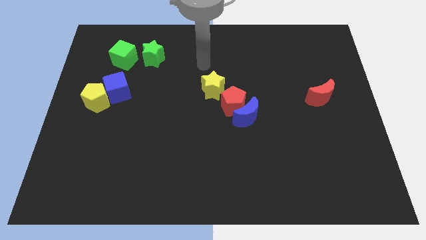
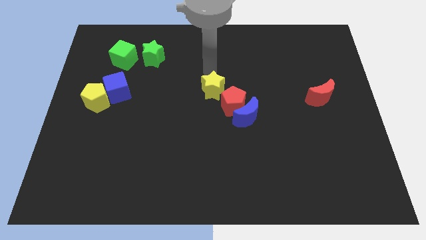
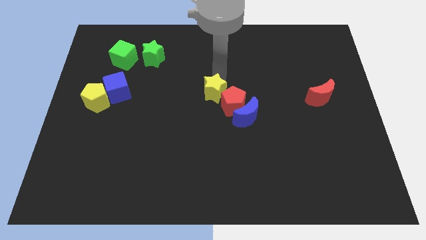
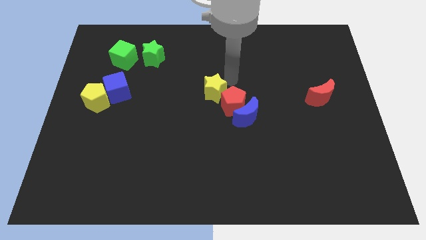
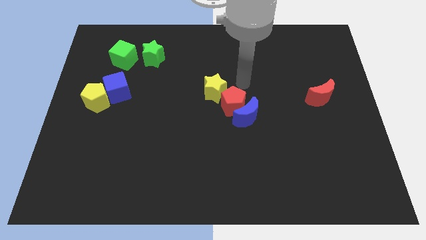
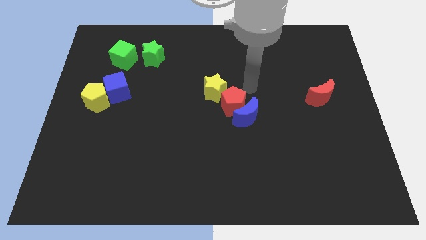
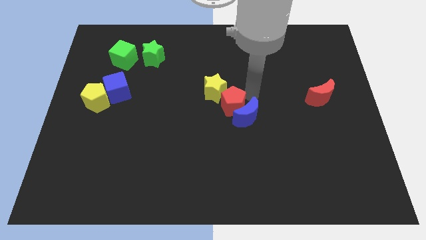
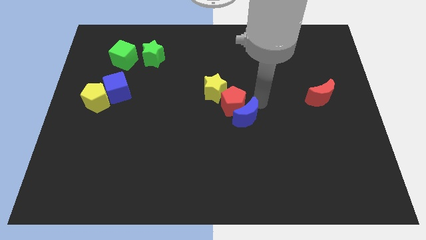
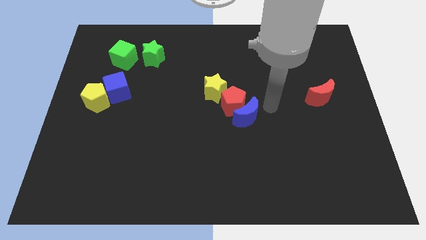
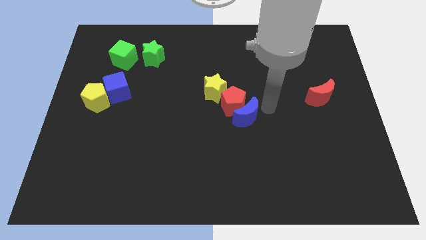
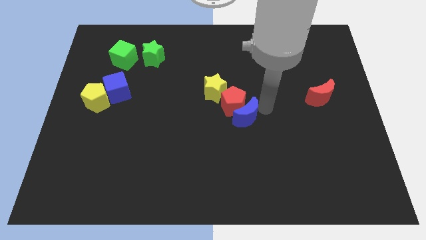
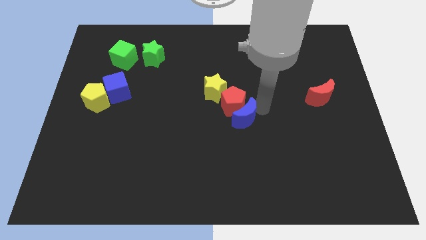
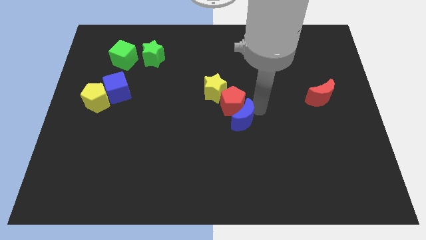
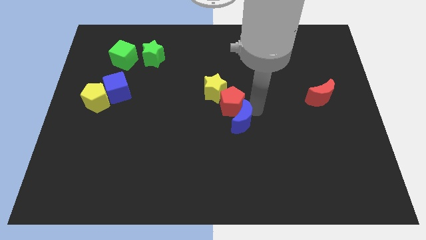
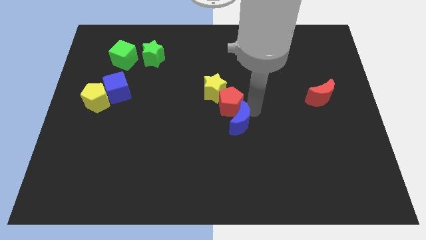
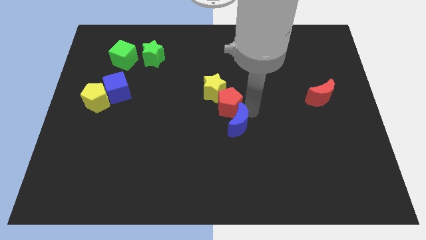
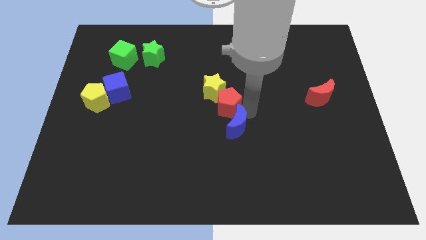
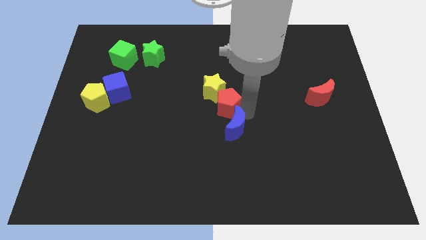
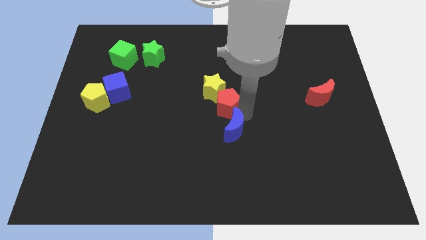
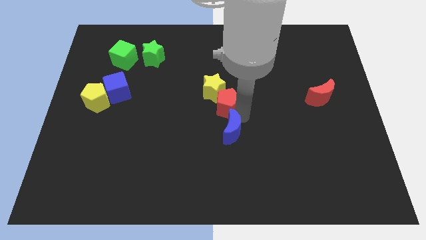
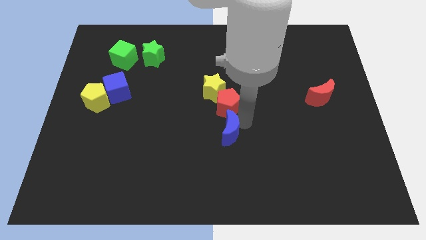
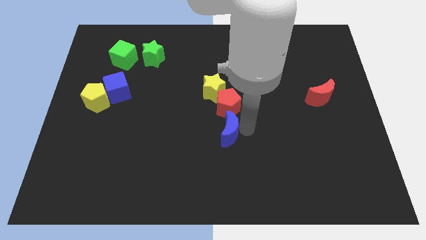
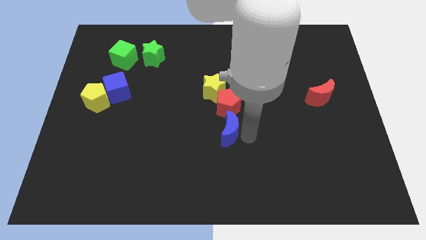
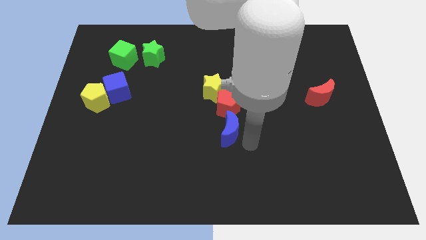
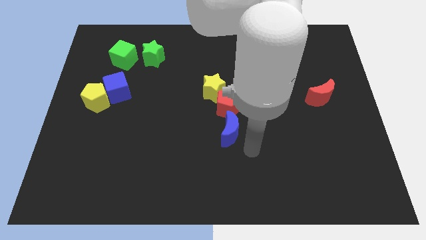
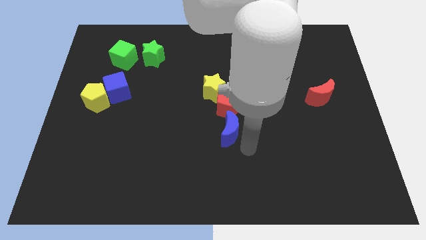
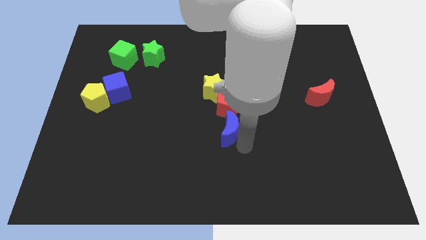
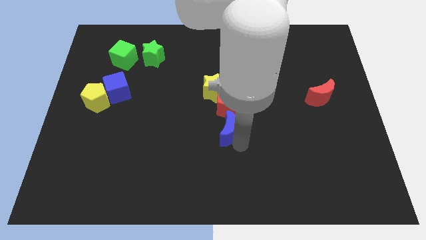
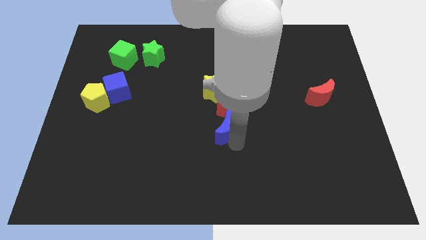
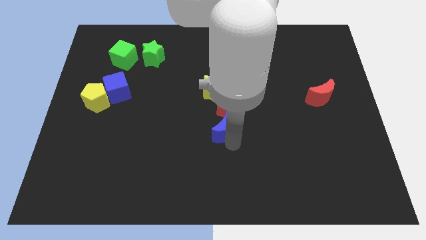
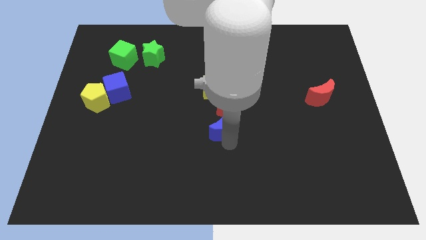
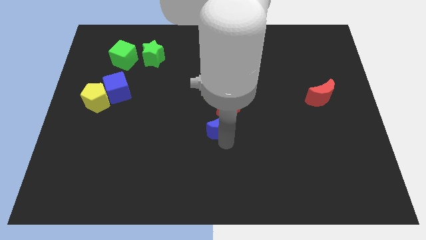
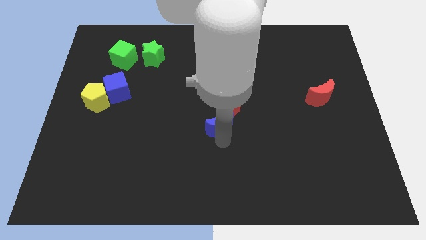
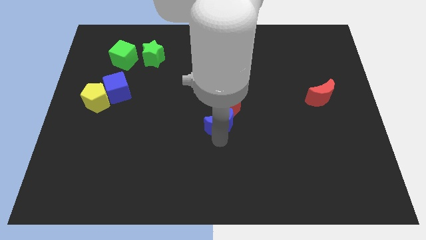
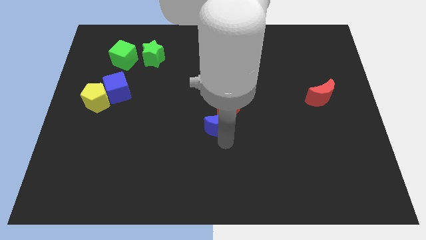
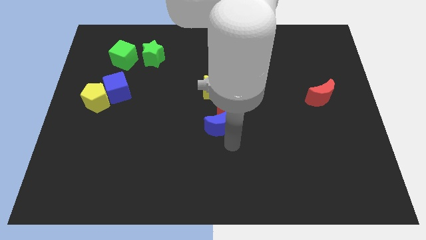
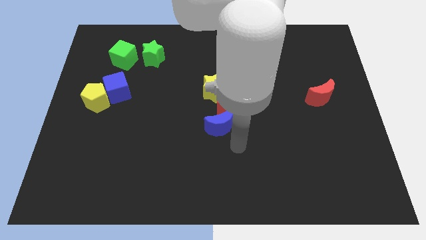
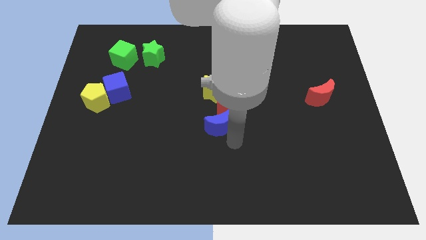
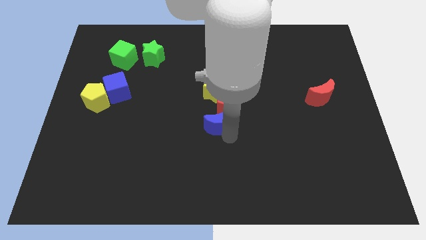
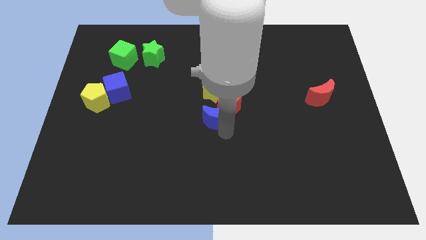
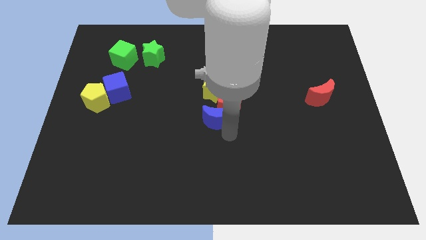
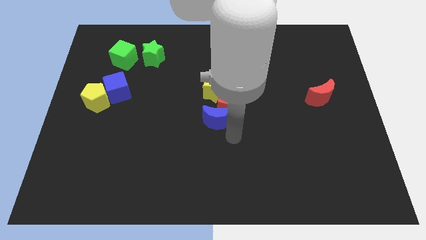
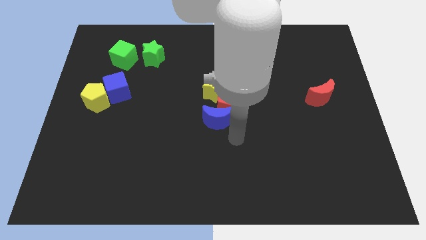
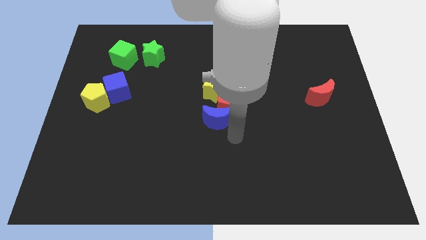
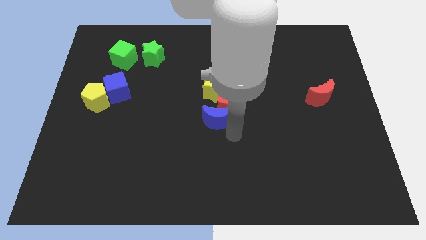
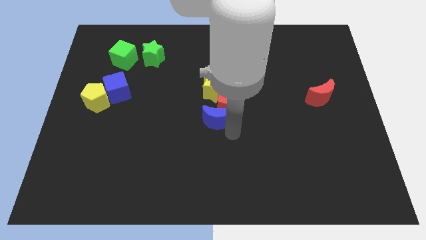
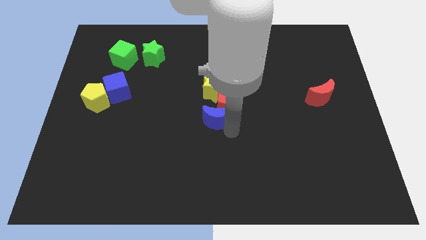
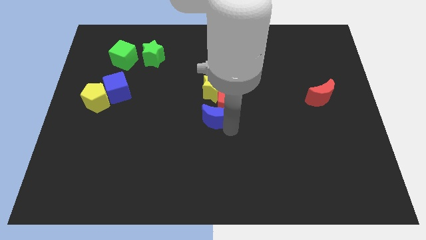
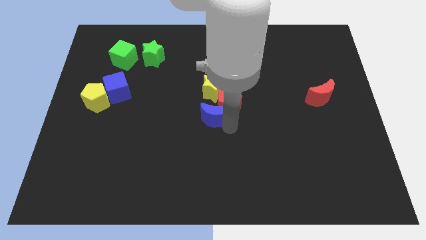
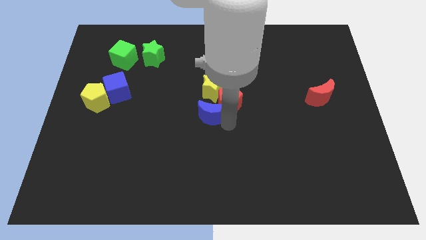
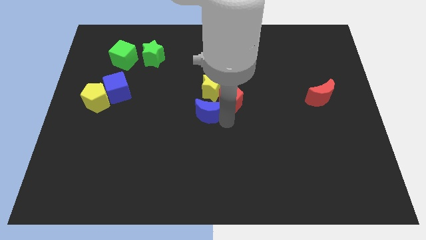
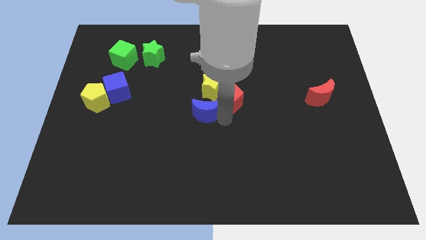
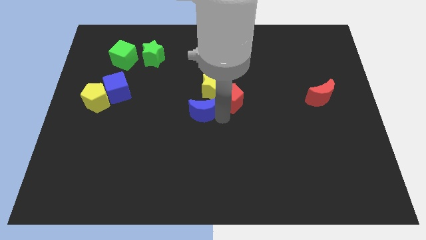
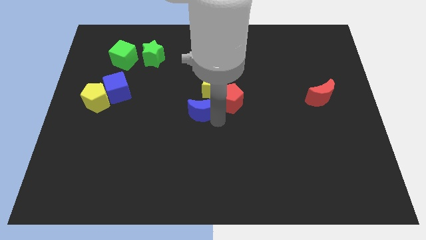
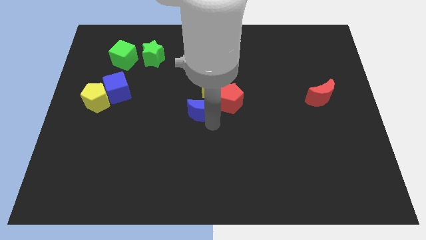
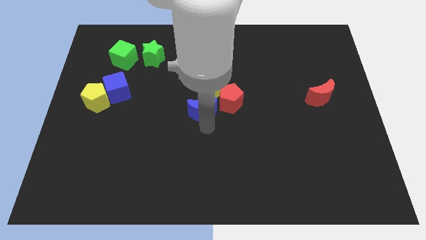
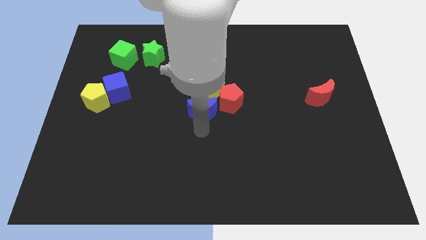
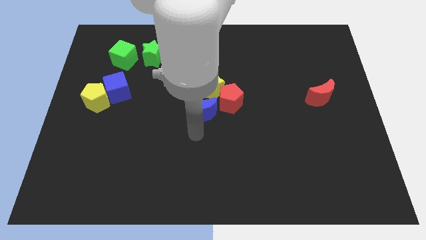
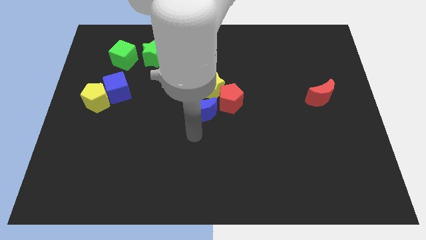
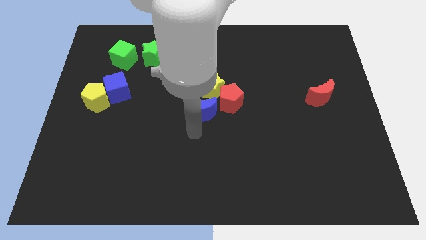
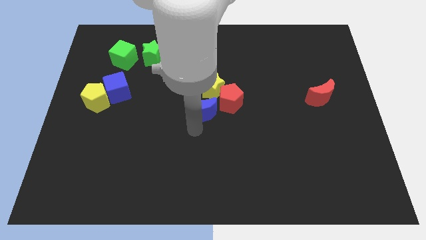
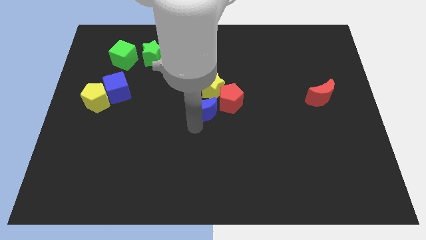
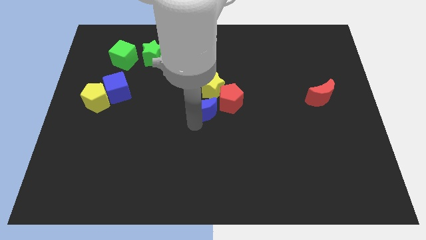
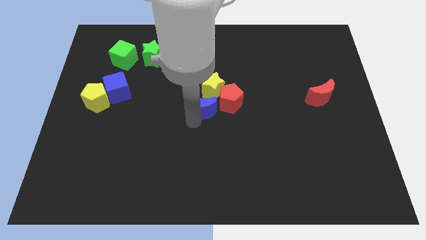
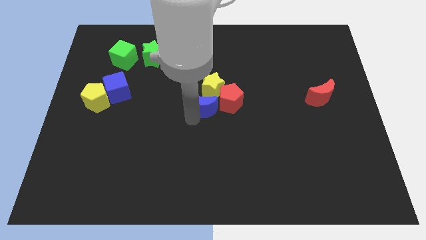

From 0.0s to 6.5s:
put the blue moon to the yellow star

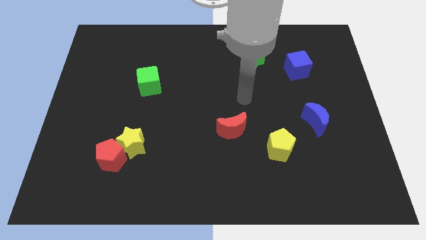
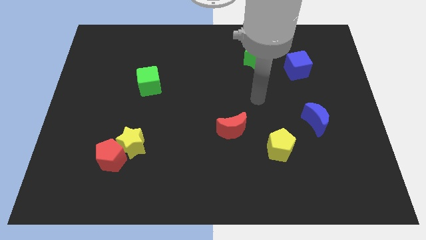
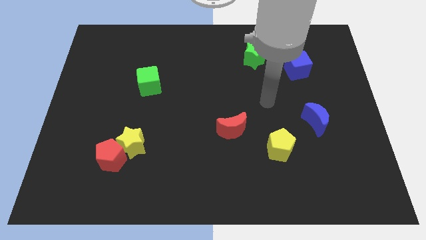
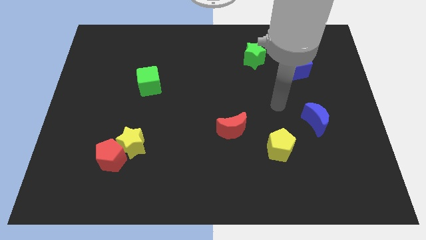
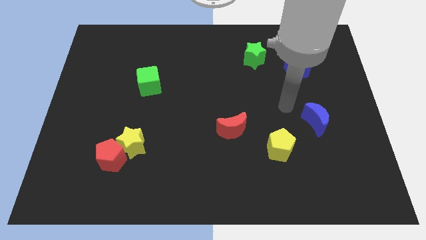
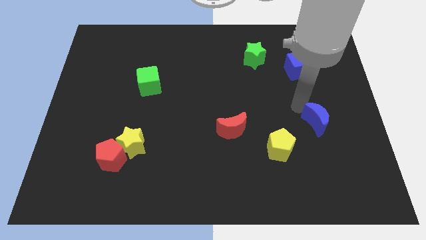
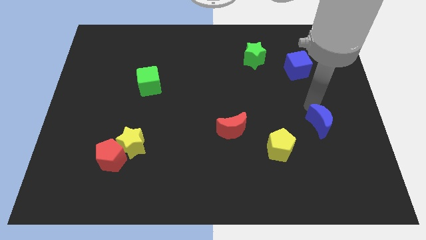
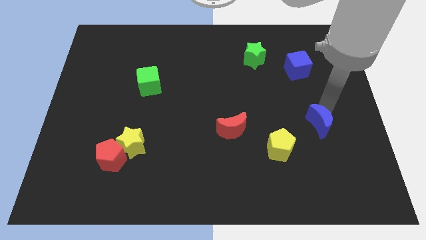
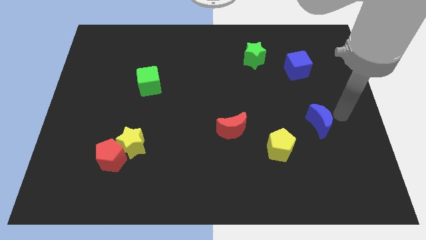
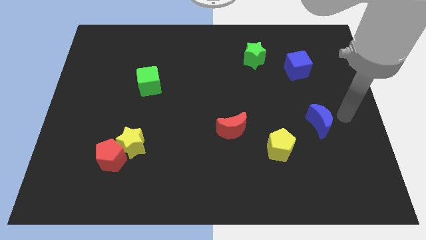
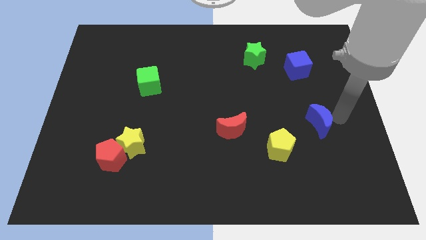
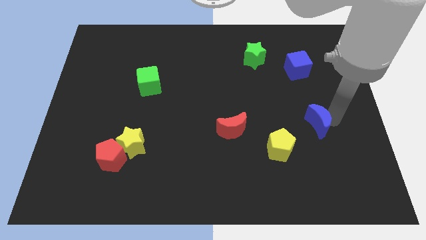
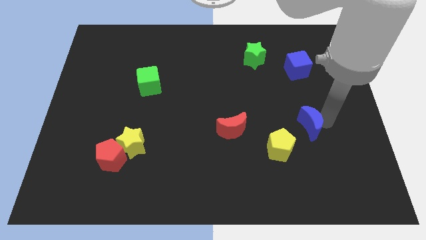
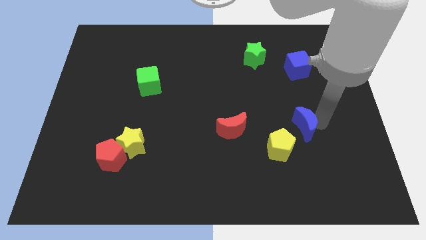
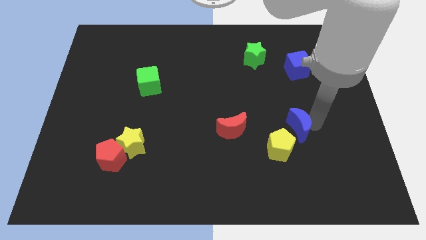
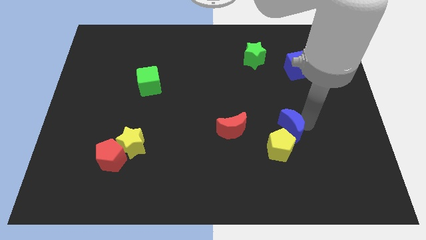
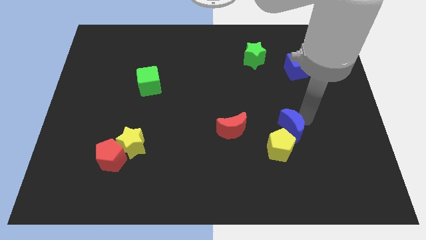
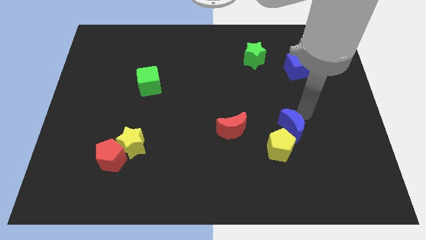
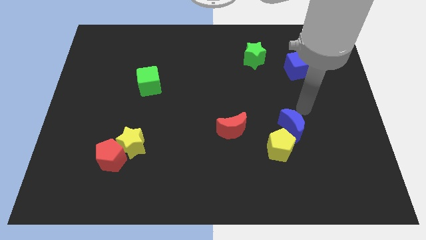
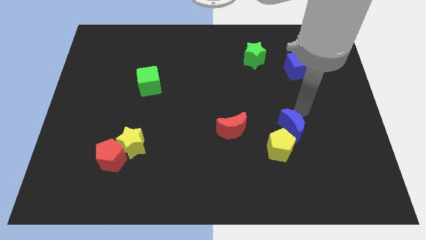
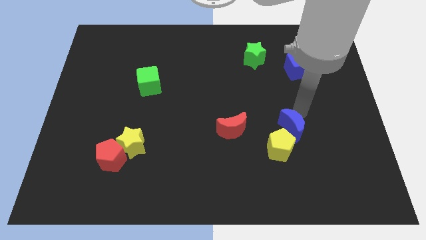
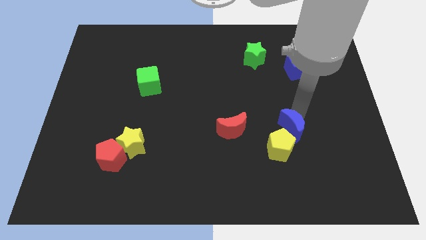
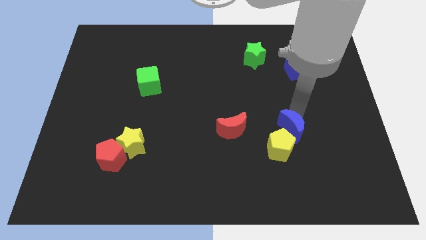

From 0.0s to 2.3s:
push the blue moon close to the yellow pentagon
